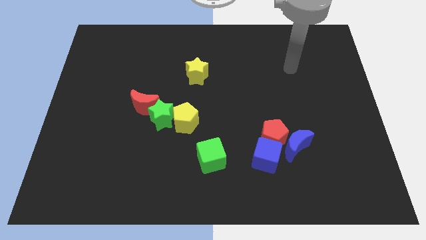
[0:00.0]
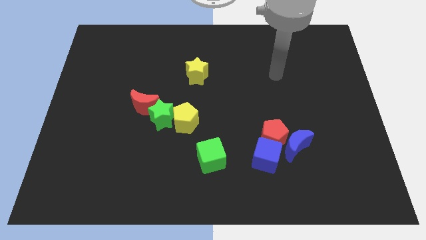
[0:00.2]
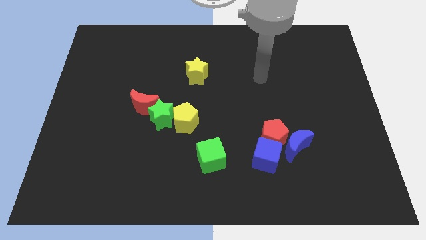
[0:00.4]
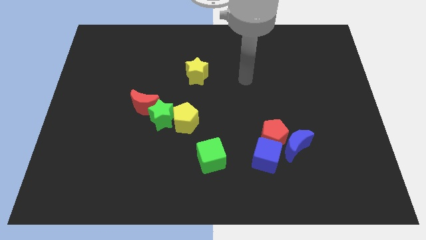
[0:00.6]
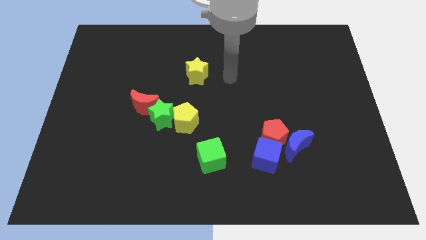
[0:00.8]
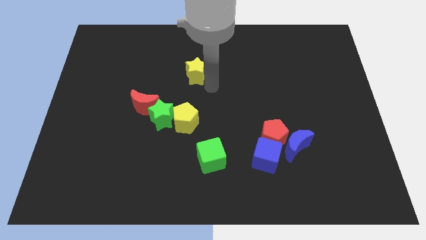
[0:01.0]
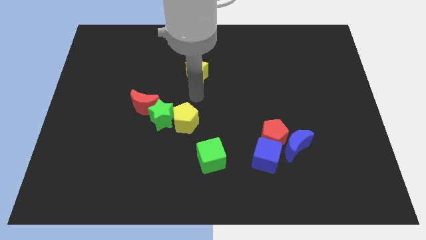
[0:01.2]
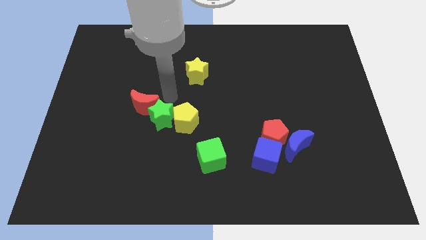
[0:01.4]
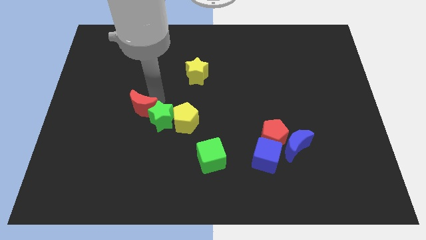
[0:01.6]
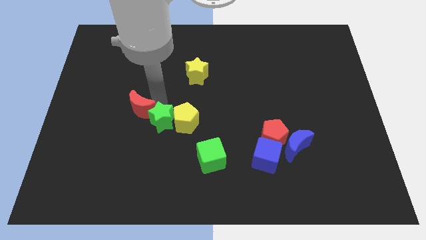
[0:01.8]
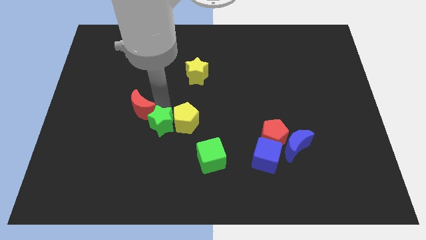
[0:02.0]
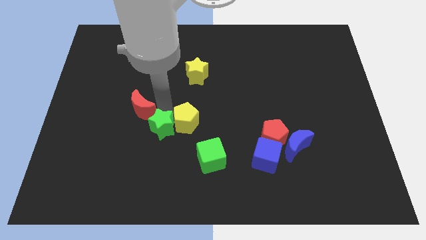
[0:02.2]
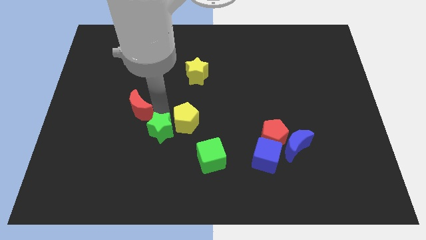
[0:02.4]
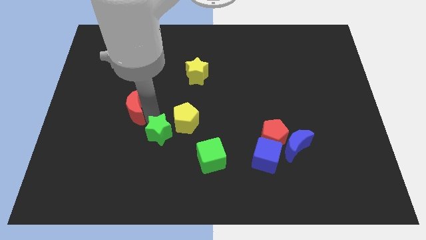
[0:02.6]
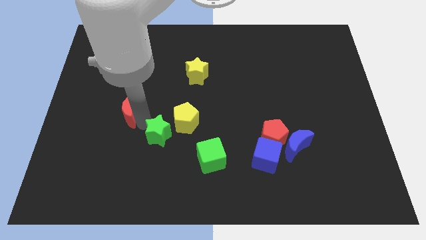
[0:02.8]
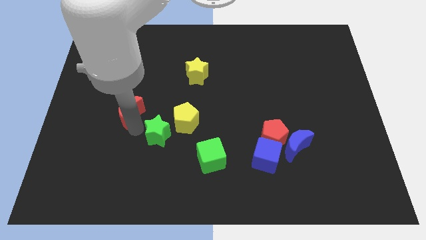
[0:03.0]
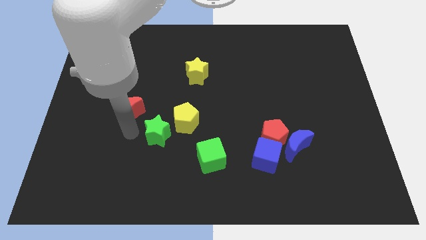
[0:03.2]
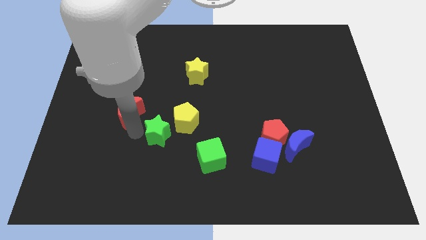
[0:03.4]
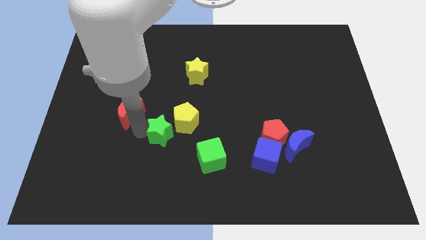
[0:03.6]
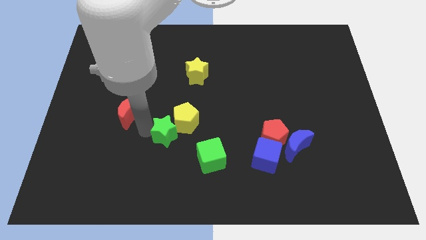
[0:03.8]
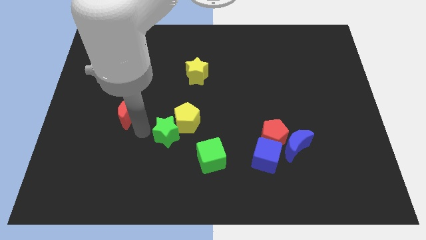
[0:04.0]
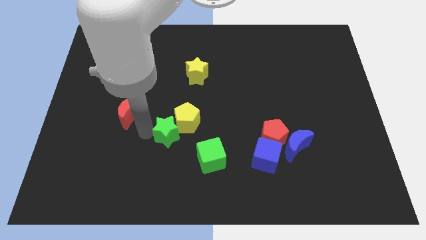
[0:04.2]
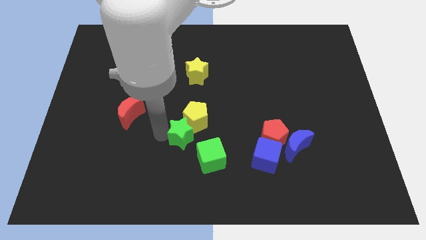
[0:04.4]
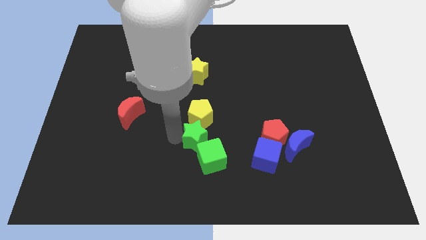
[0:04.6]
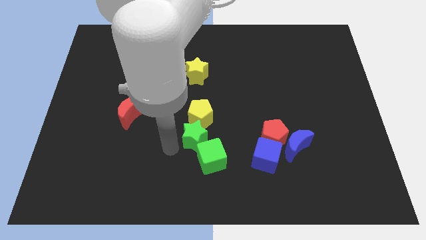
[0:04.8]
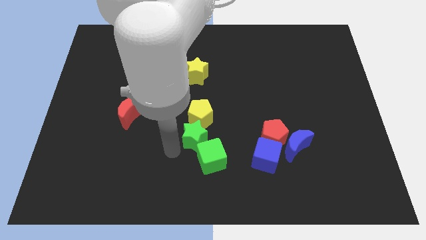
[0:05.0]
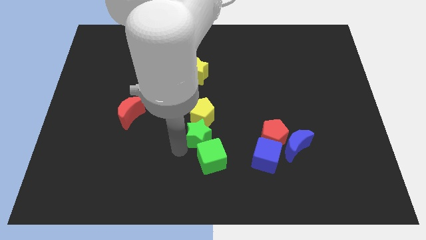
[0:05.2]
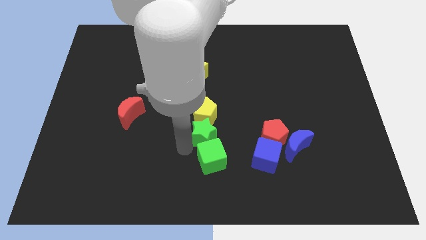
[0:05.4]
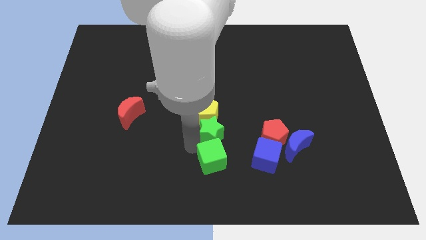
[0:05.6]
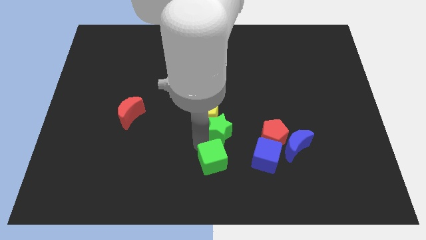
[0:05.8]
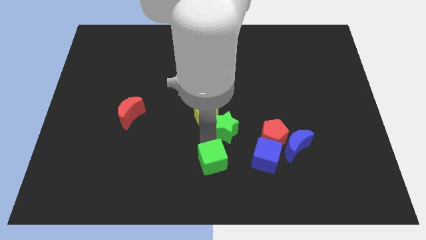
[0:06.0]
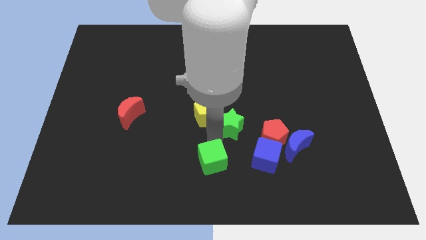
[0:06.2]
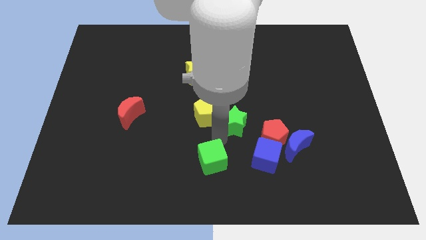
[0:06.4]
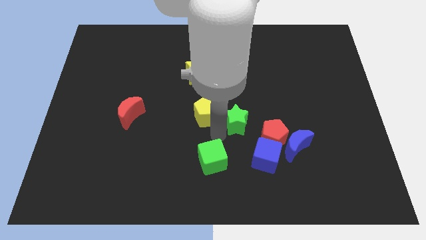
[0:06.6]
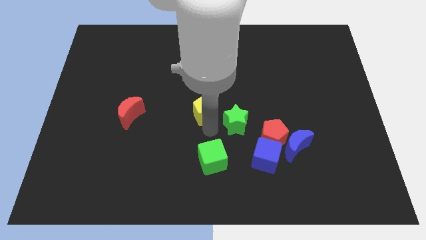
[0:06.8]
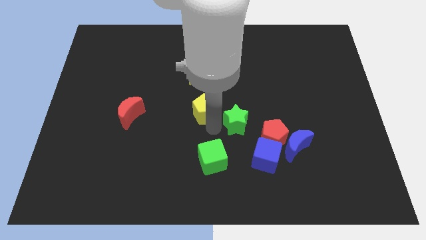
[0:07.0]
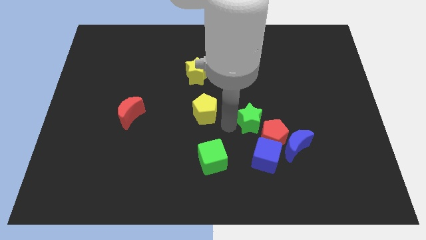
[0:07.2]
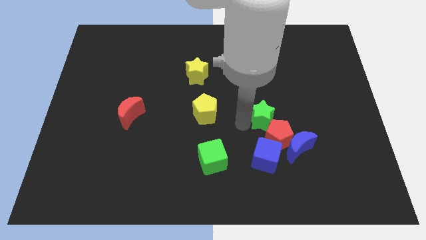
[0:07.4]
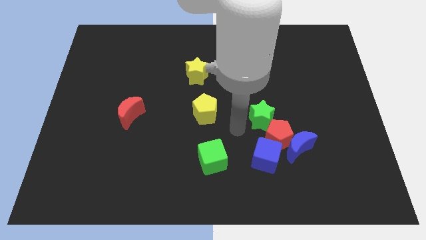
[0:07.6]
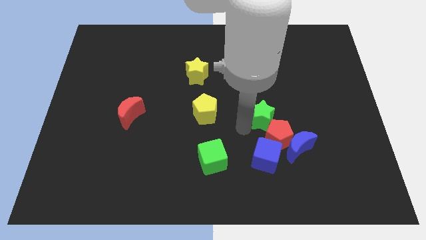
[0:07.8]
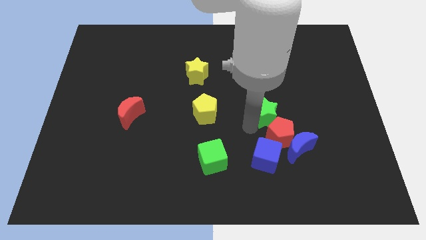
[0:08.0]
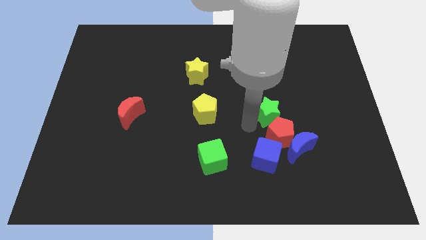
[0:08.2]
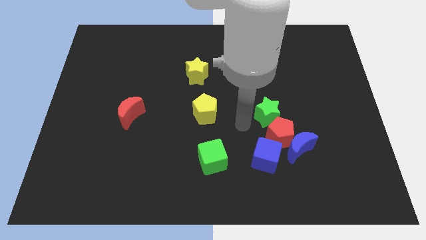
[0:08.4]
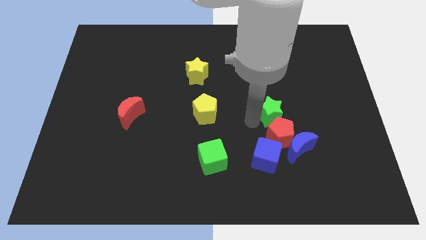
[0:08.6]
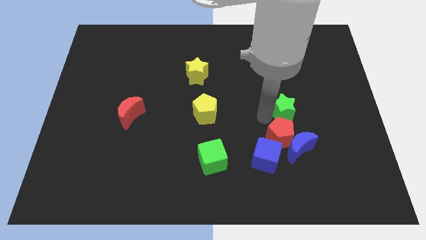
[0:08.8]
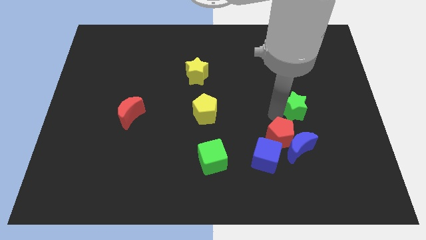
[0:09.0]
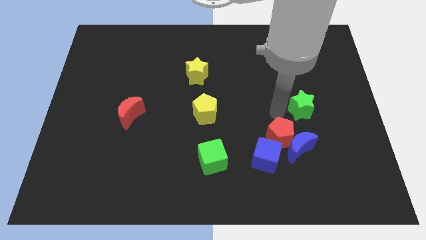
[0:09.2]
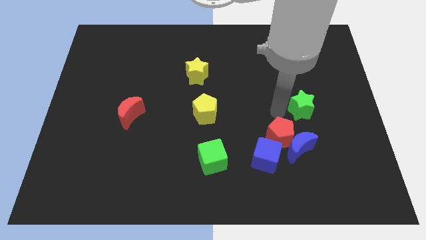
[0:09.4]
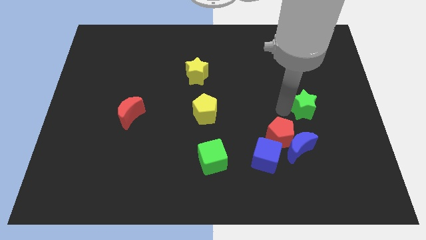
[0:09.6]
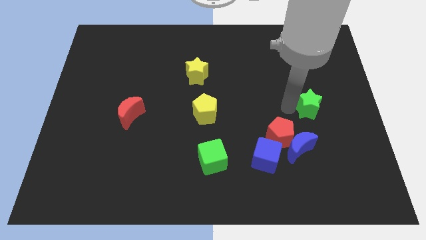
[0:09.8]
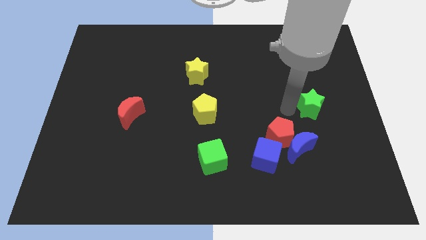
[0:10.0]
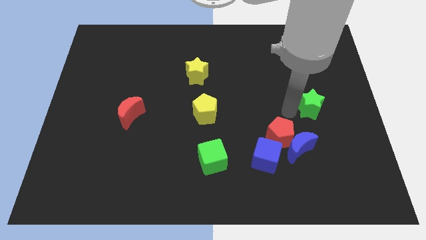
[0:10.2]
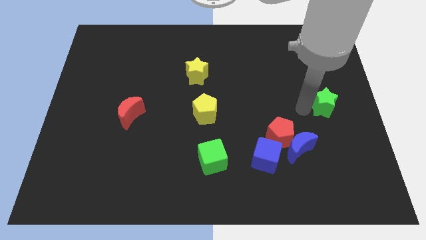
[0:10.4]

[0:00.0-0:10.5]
push the green star to the center right

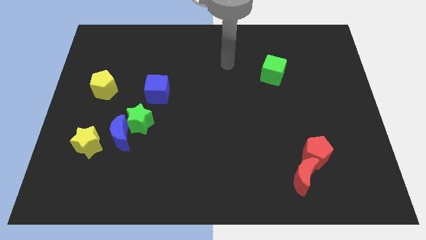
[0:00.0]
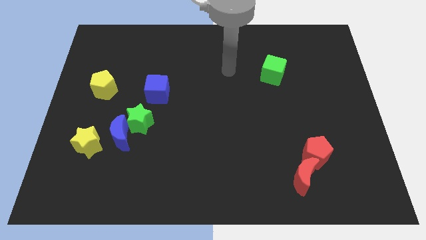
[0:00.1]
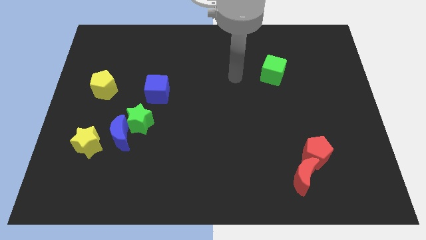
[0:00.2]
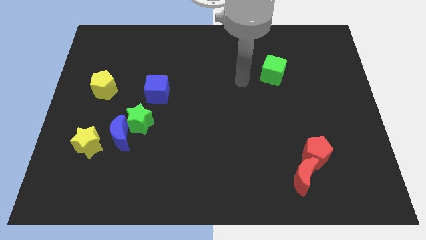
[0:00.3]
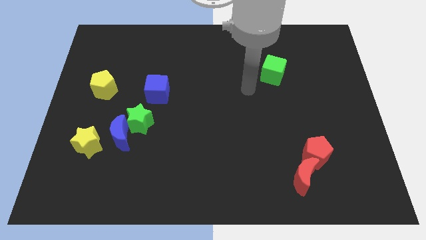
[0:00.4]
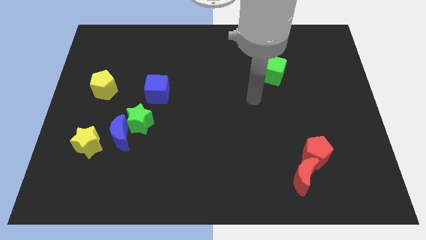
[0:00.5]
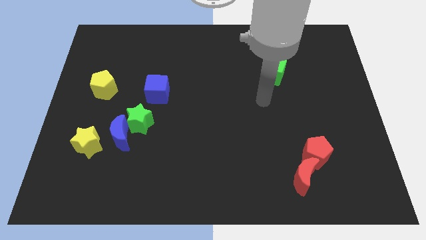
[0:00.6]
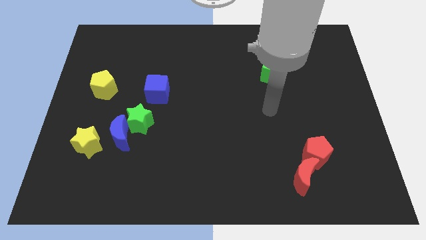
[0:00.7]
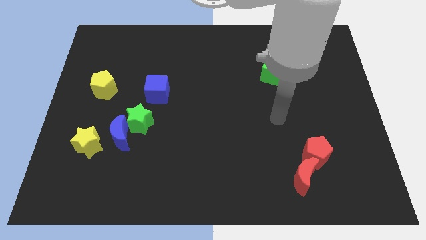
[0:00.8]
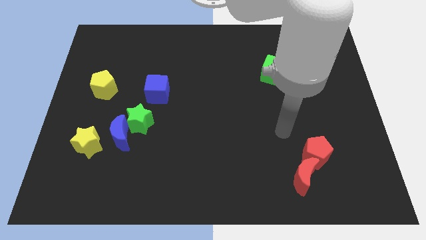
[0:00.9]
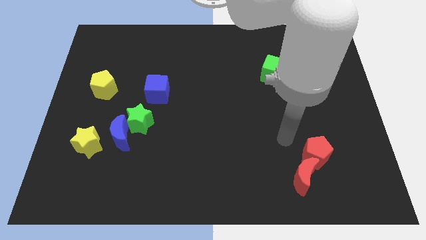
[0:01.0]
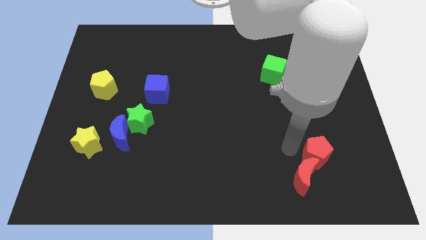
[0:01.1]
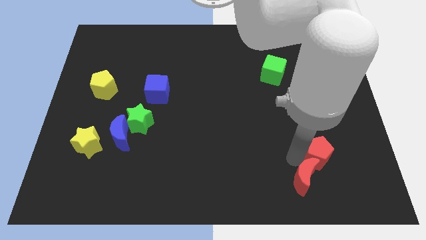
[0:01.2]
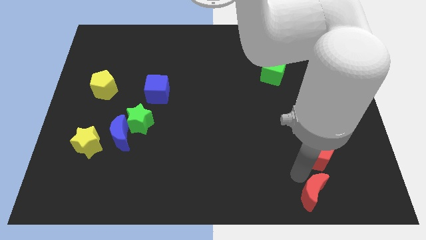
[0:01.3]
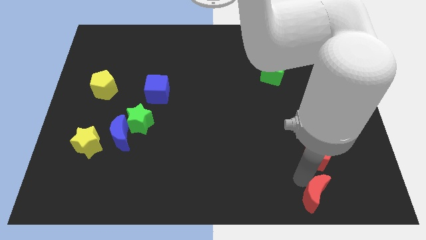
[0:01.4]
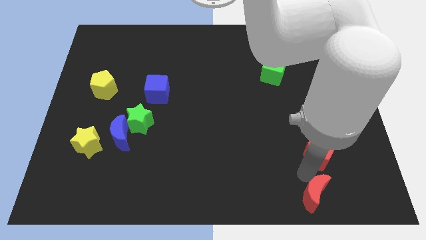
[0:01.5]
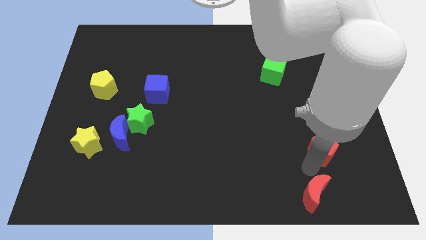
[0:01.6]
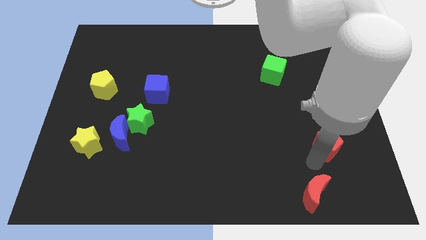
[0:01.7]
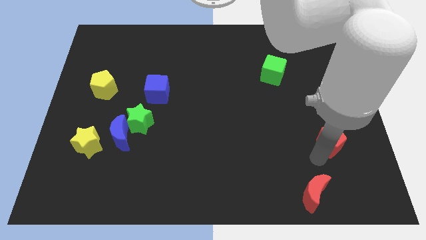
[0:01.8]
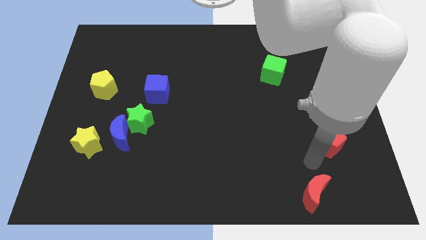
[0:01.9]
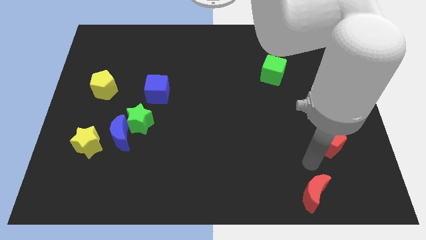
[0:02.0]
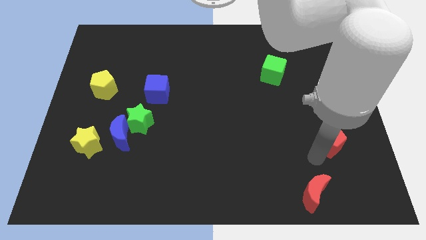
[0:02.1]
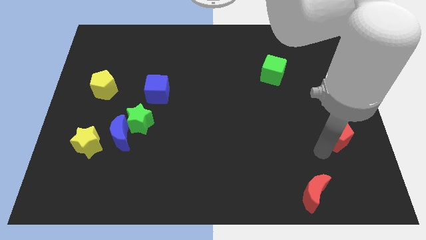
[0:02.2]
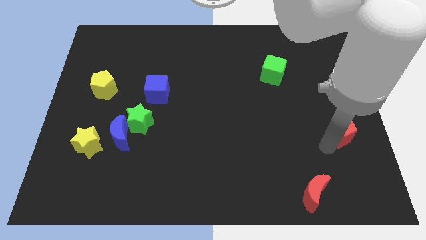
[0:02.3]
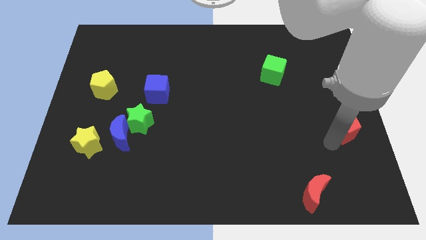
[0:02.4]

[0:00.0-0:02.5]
push the red pentagon to the center right
